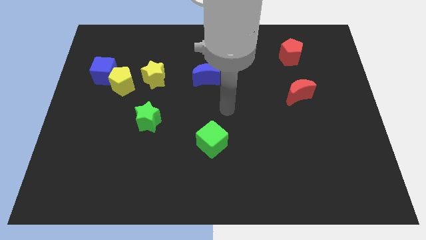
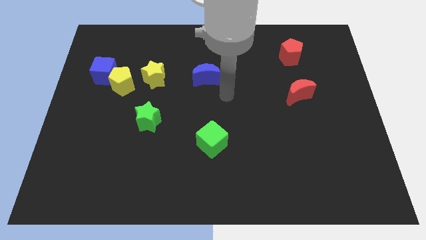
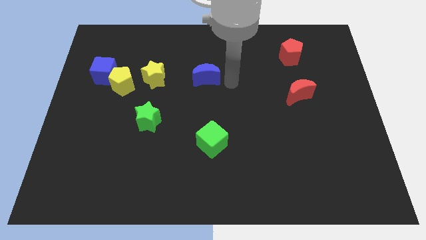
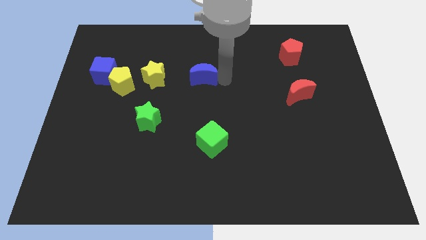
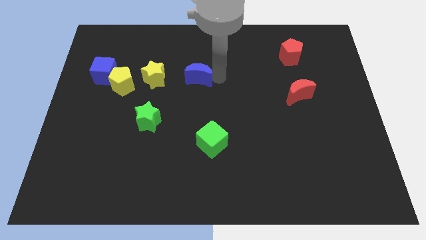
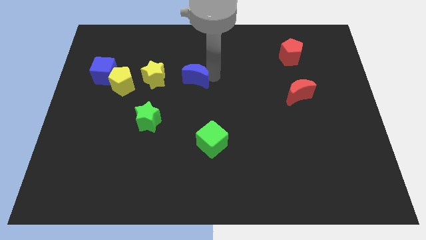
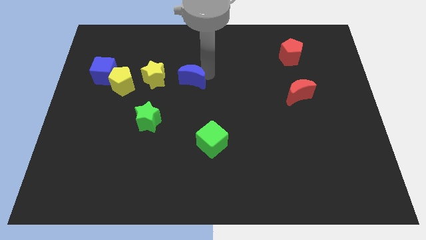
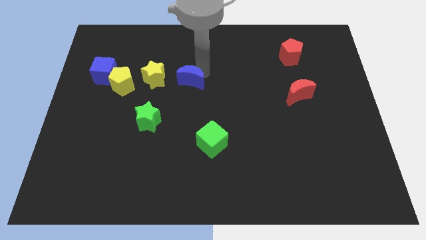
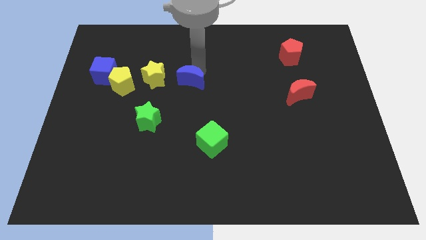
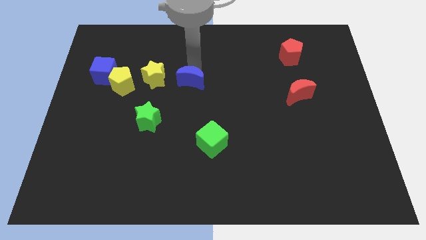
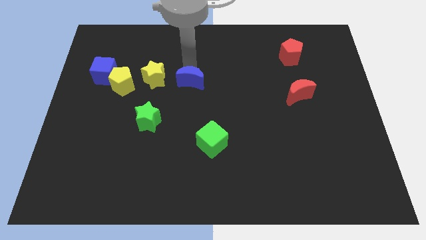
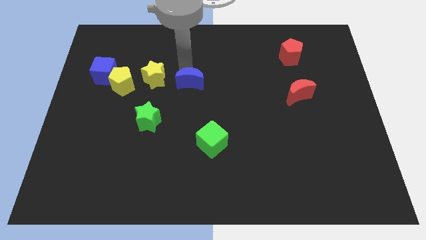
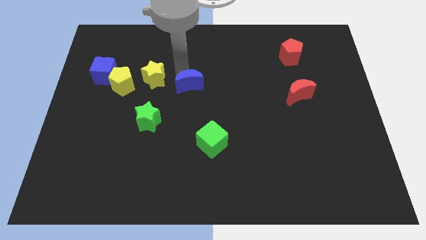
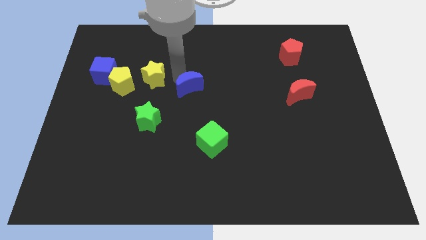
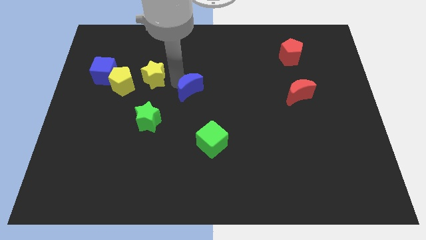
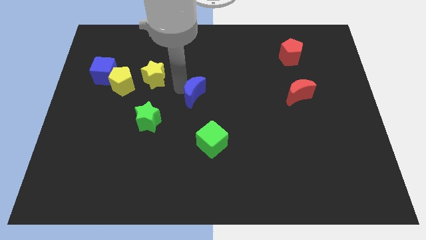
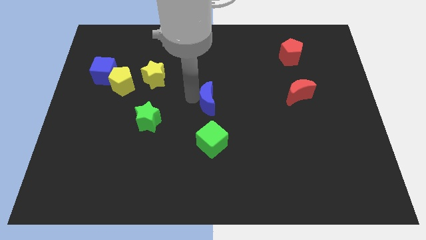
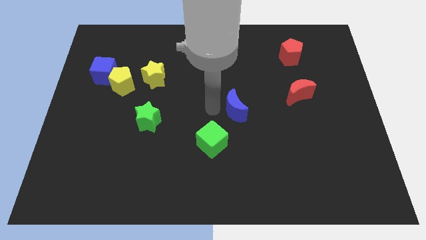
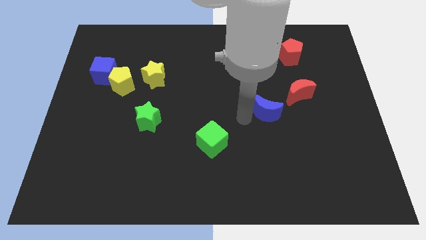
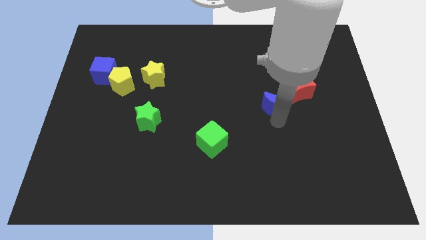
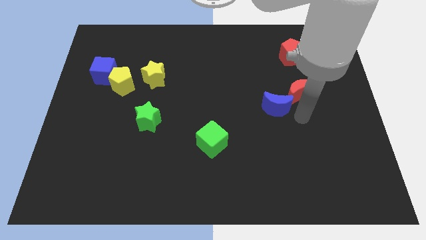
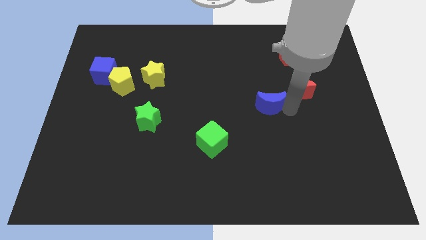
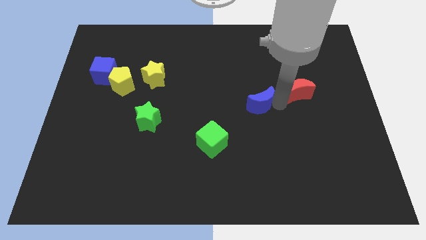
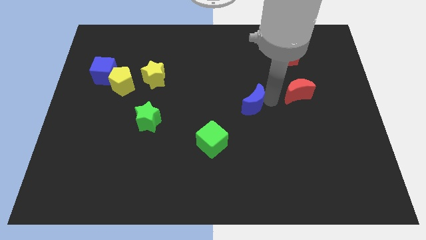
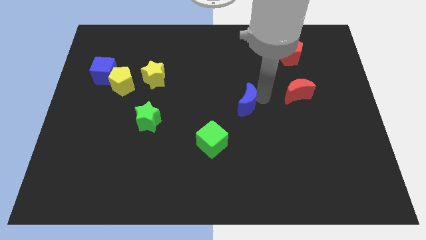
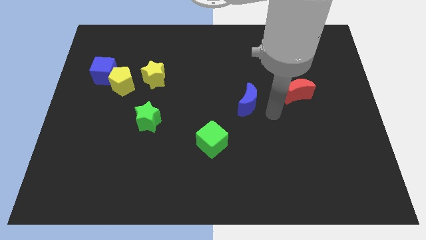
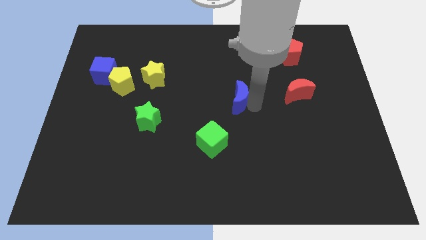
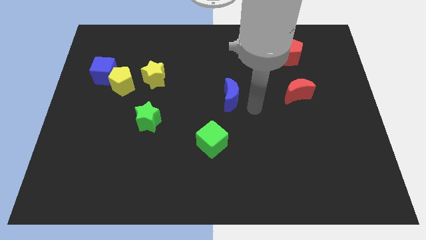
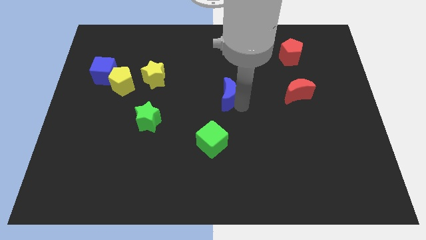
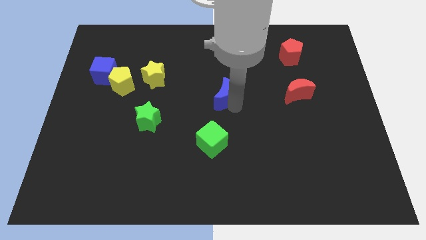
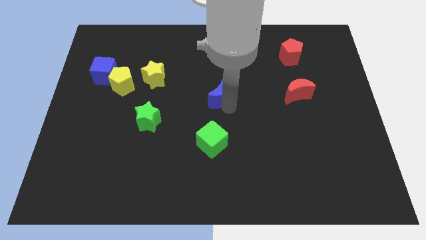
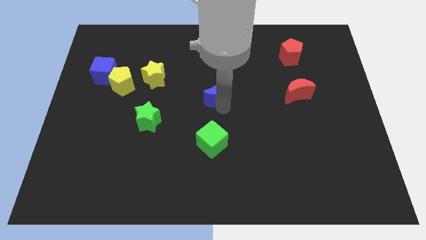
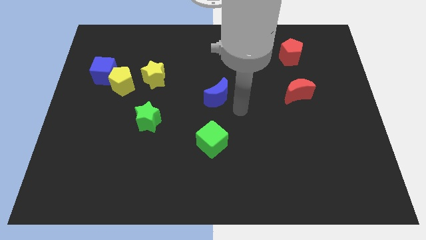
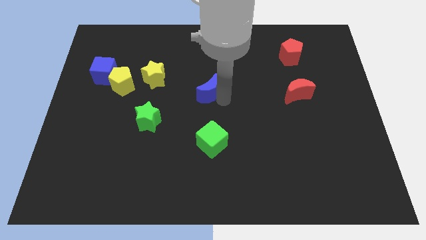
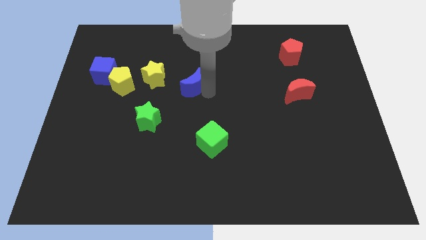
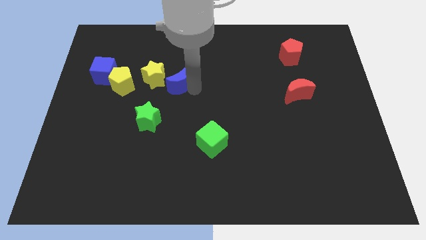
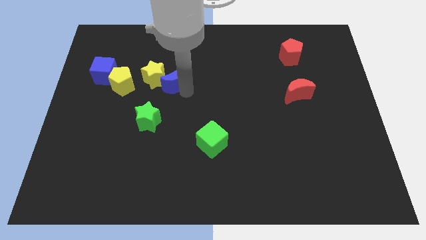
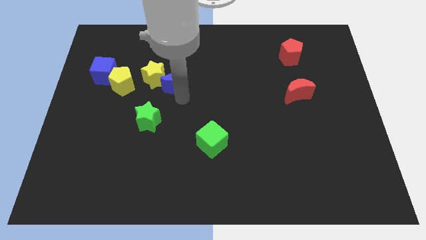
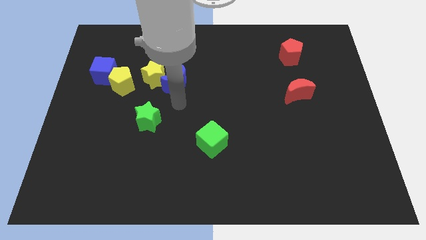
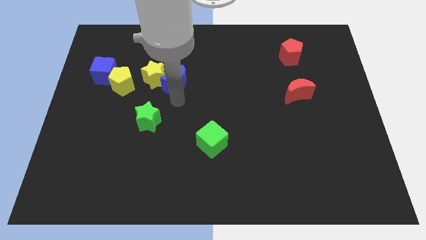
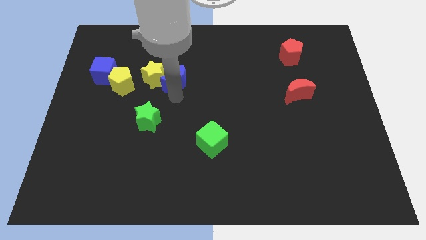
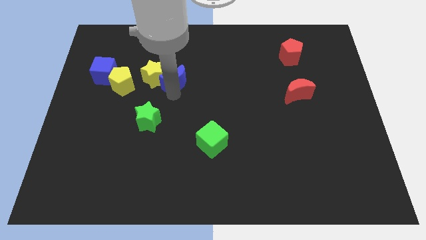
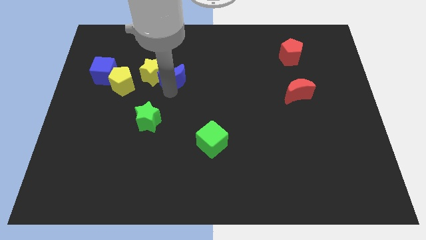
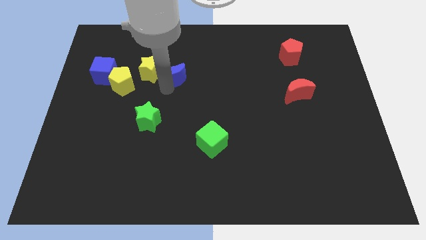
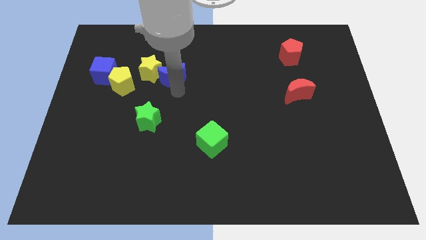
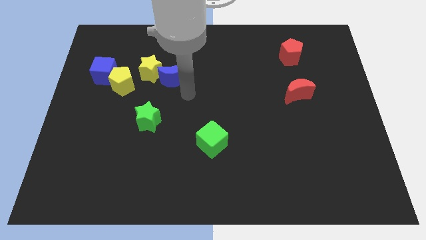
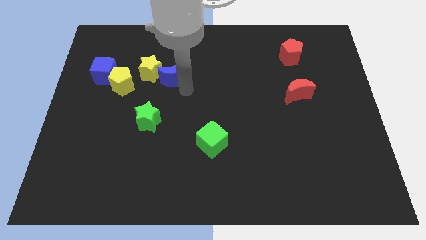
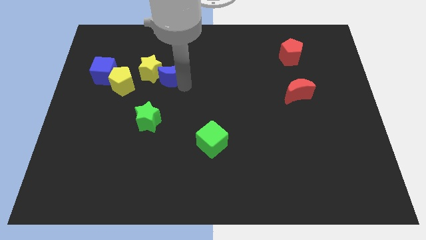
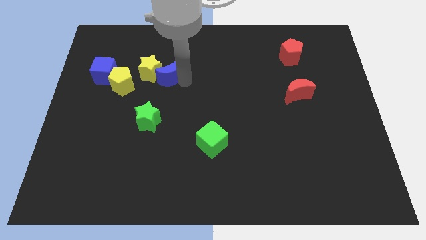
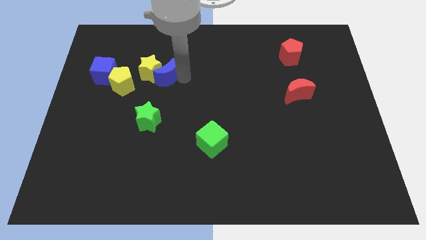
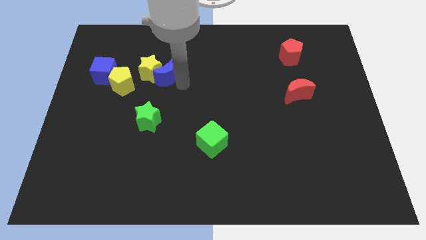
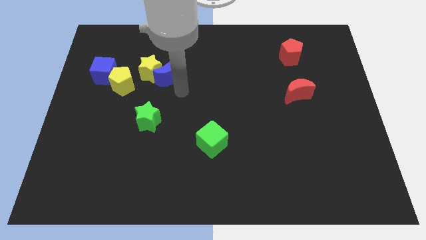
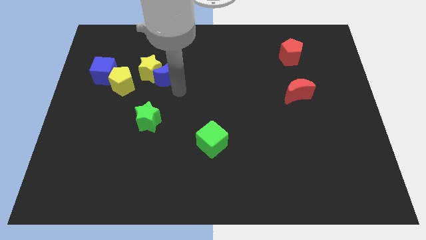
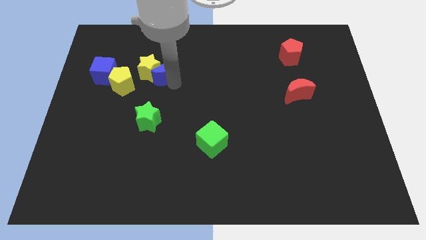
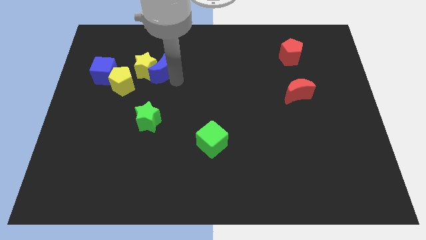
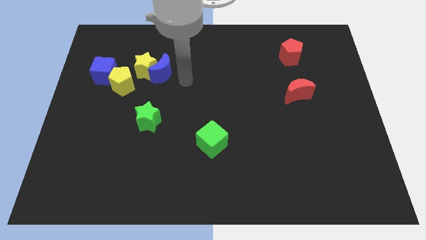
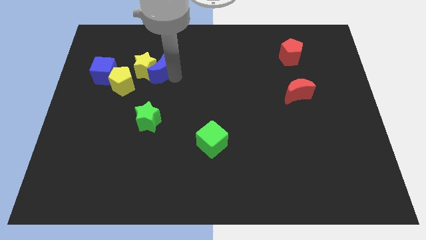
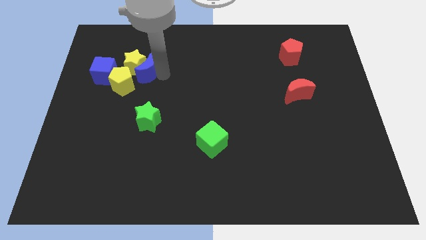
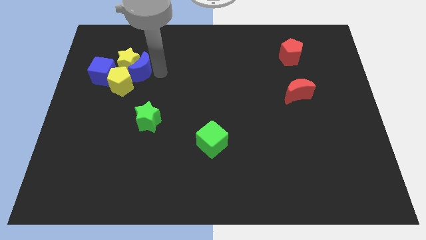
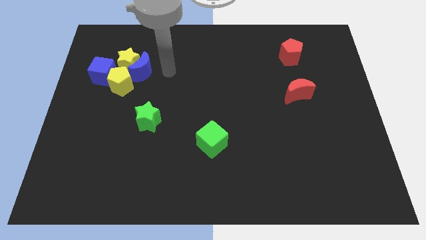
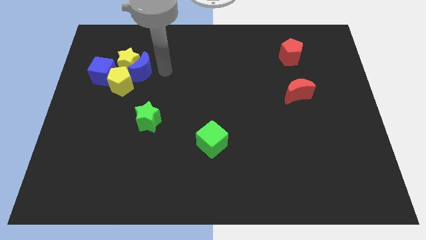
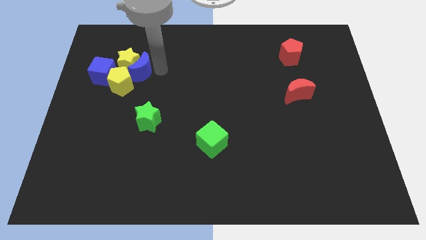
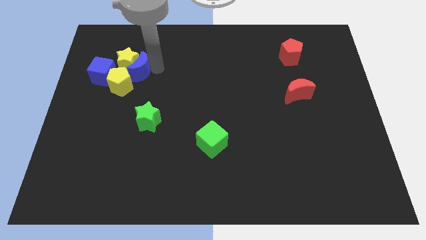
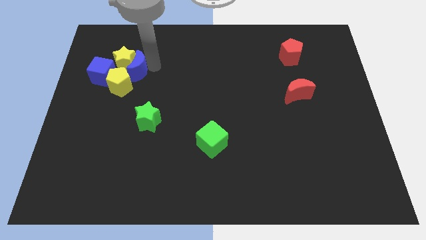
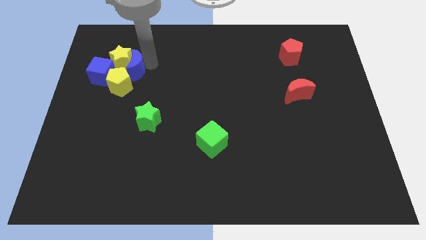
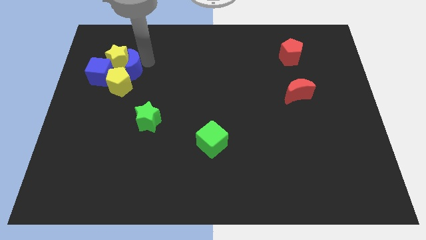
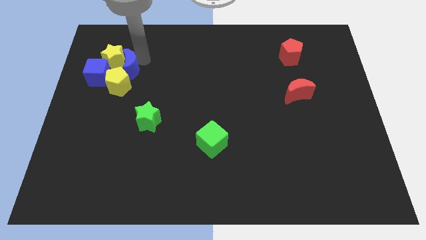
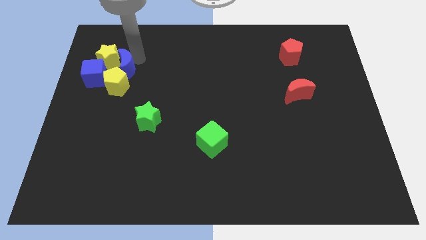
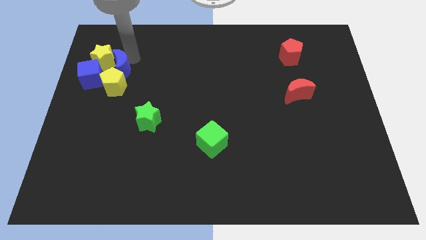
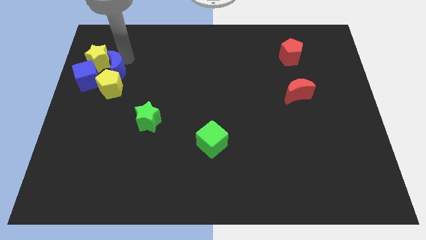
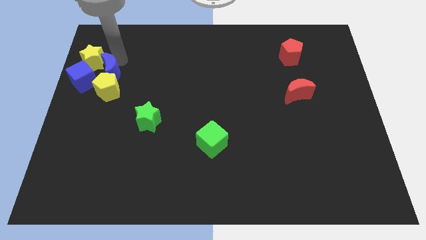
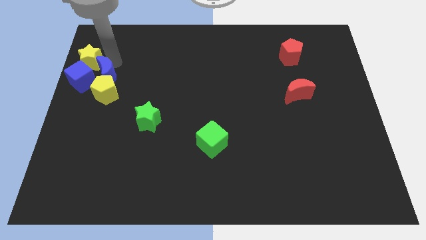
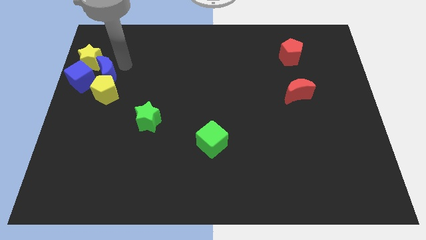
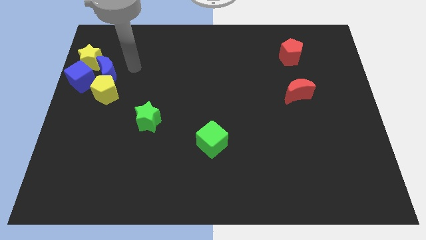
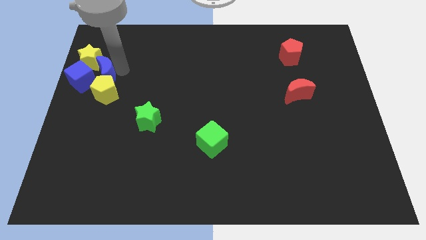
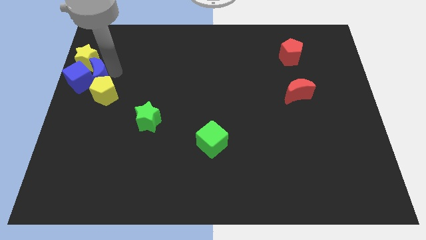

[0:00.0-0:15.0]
slide the blue moon close to the blue cube
